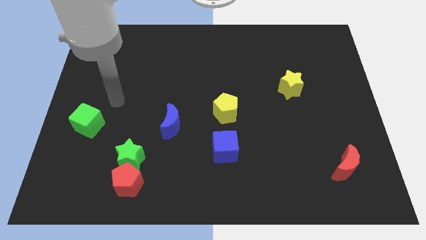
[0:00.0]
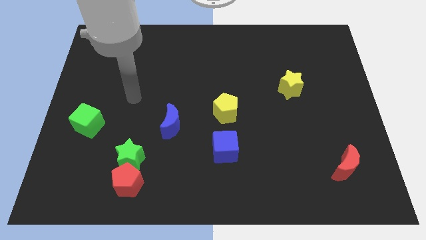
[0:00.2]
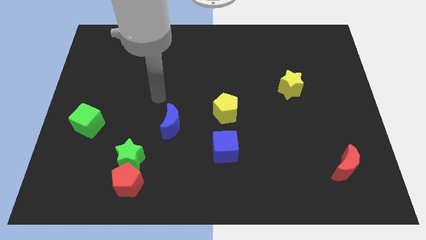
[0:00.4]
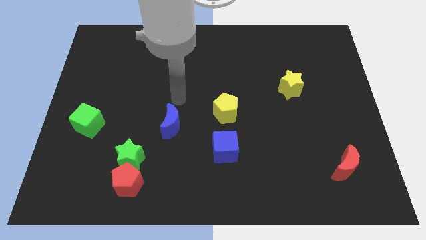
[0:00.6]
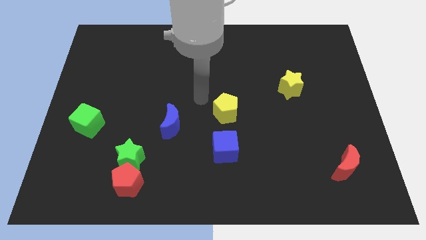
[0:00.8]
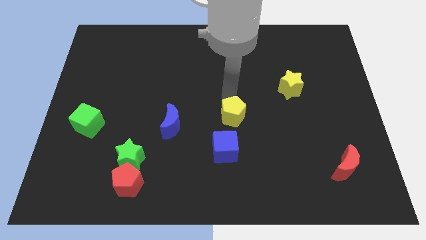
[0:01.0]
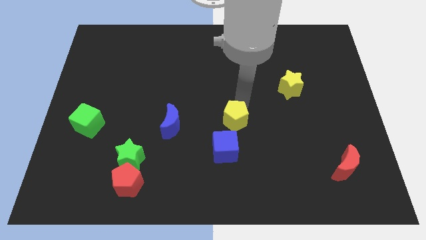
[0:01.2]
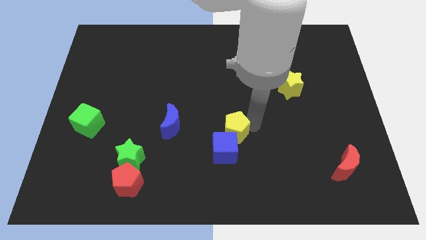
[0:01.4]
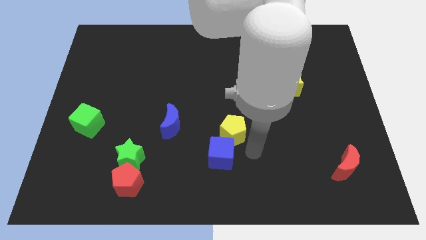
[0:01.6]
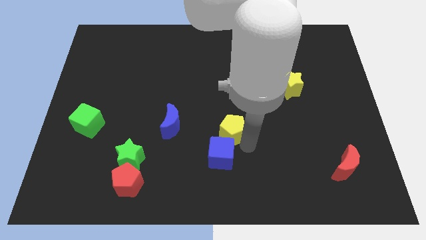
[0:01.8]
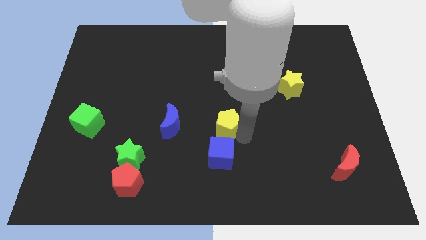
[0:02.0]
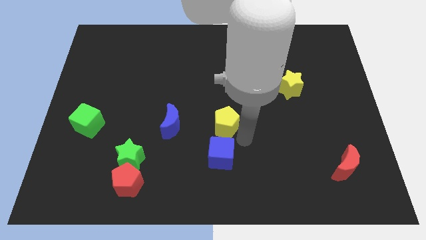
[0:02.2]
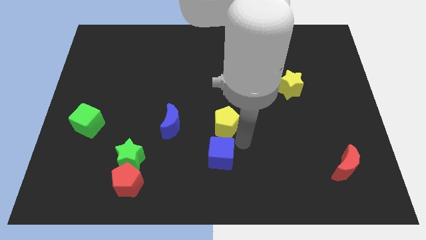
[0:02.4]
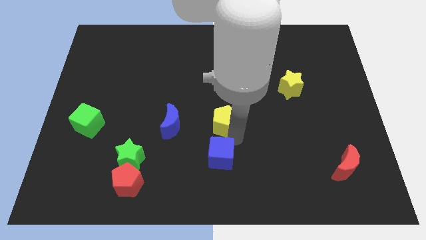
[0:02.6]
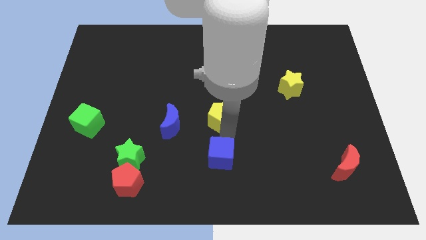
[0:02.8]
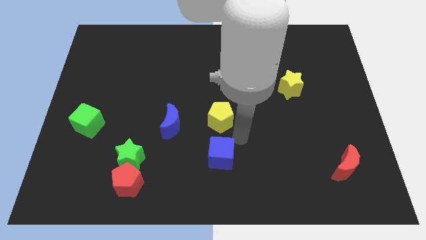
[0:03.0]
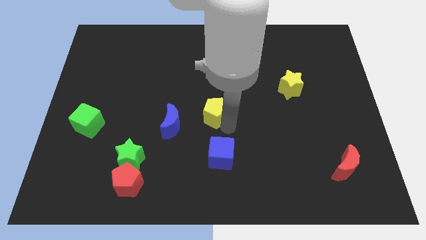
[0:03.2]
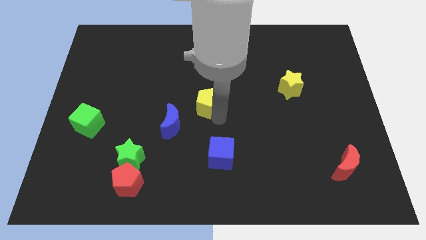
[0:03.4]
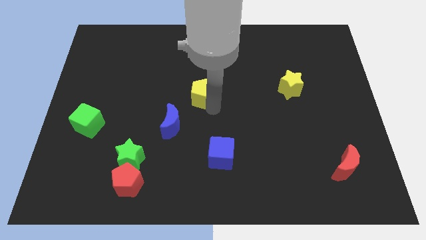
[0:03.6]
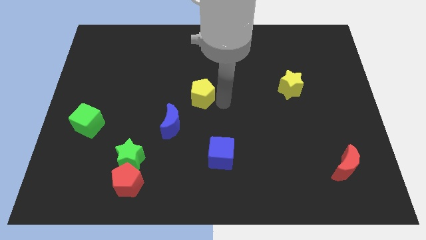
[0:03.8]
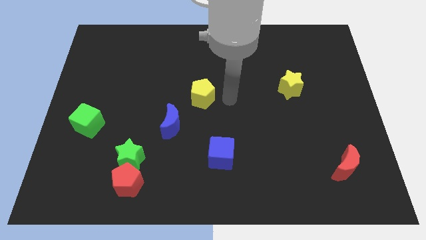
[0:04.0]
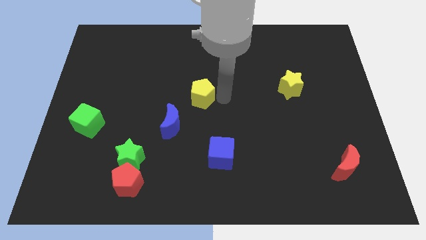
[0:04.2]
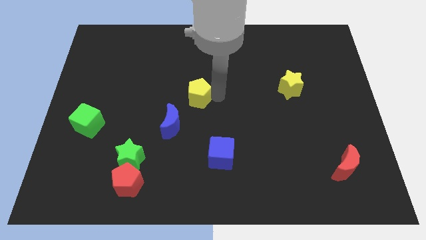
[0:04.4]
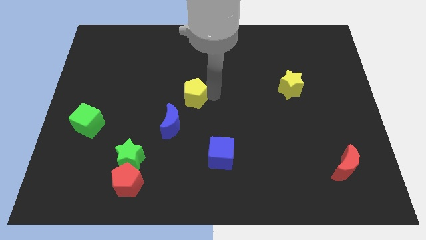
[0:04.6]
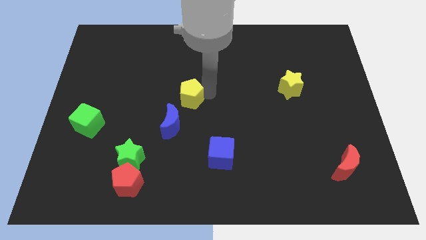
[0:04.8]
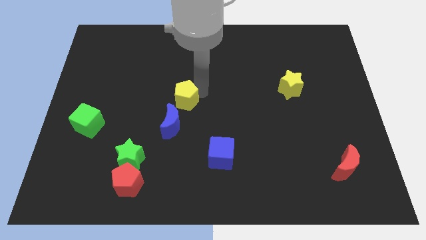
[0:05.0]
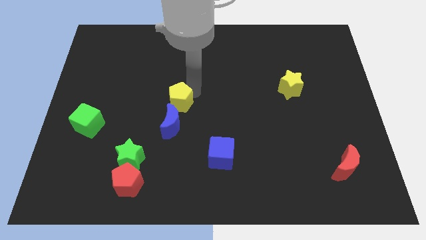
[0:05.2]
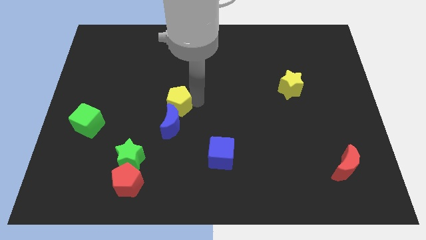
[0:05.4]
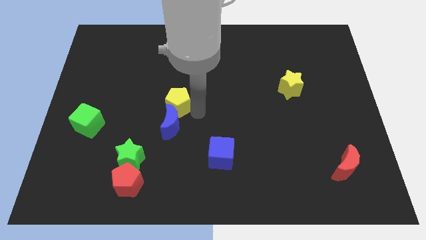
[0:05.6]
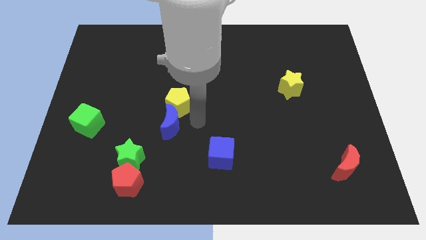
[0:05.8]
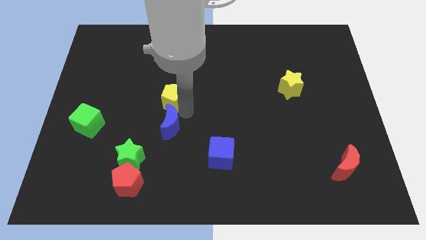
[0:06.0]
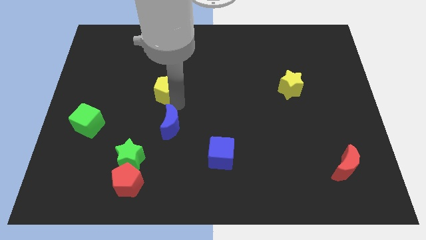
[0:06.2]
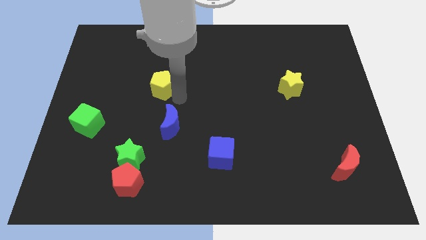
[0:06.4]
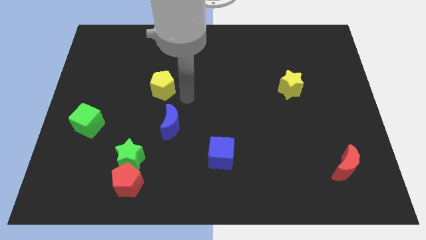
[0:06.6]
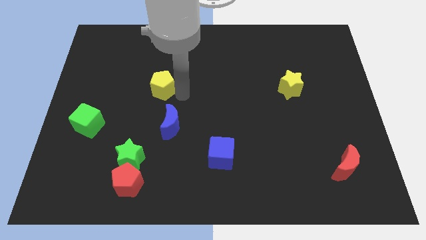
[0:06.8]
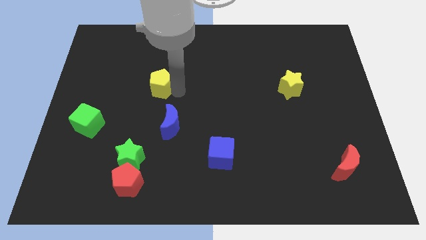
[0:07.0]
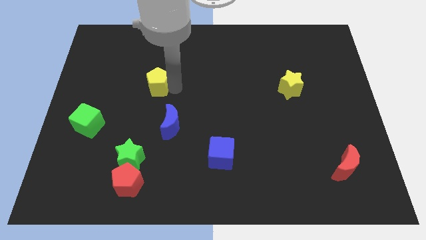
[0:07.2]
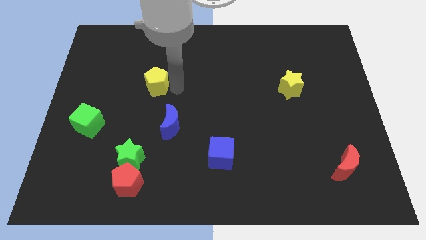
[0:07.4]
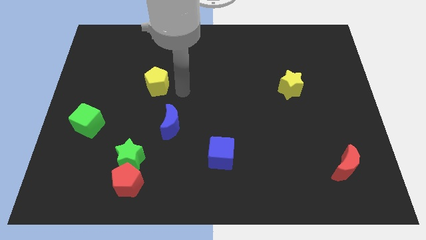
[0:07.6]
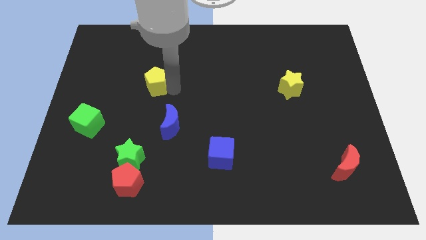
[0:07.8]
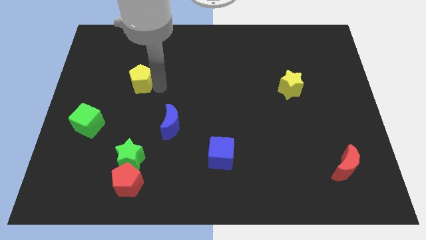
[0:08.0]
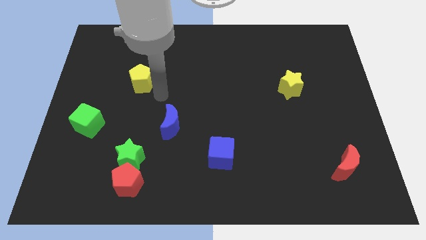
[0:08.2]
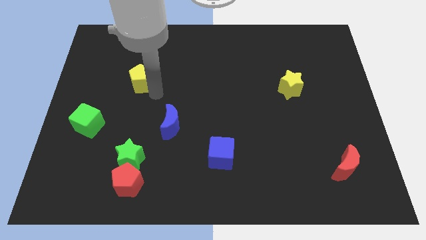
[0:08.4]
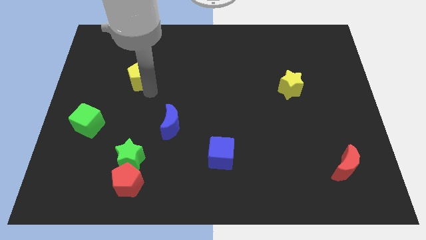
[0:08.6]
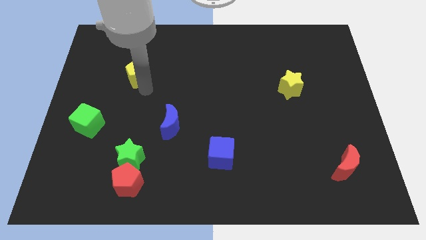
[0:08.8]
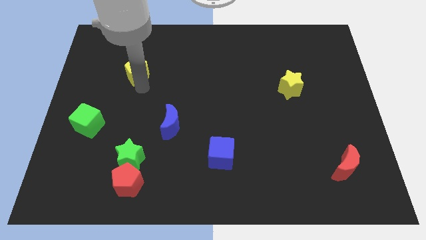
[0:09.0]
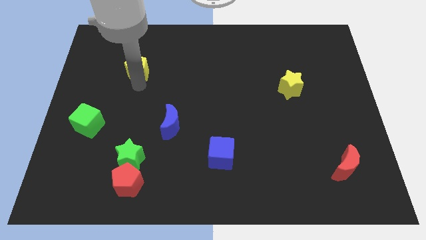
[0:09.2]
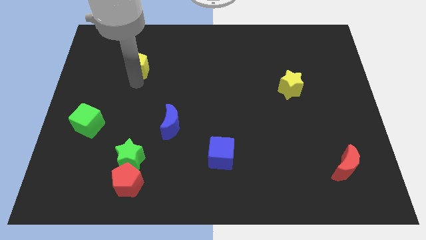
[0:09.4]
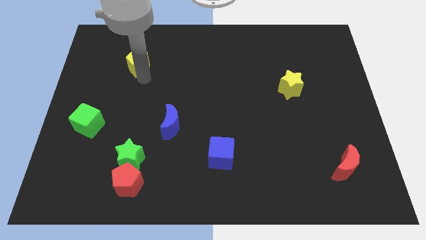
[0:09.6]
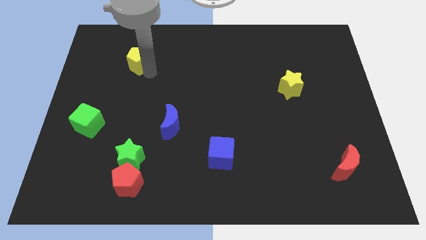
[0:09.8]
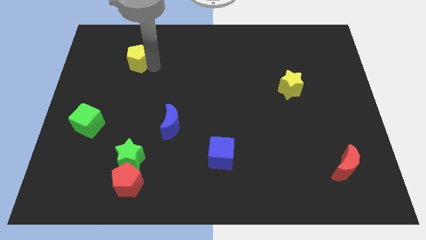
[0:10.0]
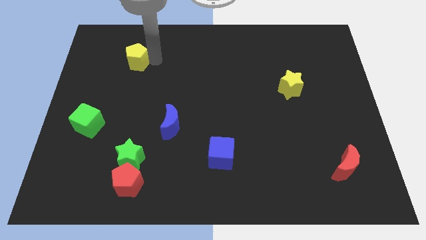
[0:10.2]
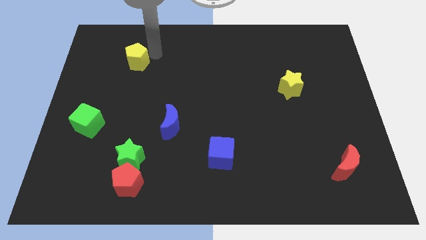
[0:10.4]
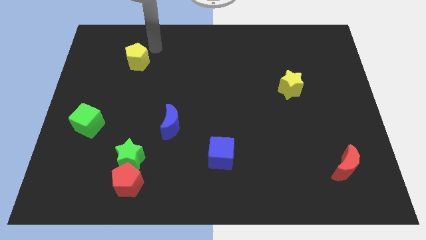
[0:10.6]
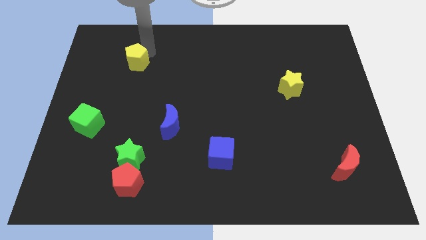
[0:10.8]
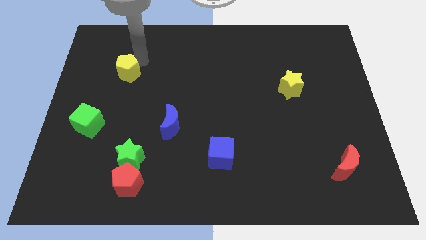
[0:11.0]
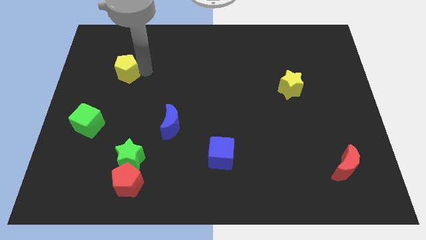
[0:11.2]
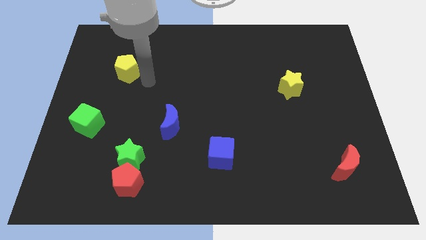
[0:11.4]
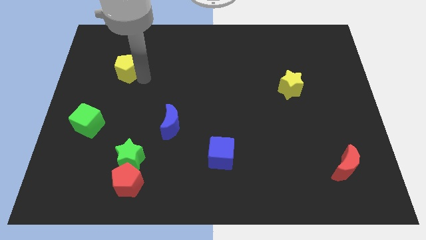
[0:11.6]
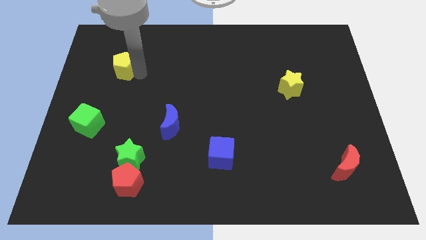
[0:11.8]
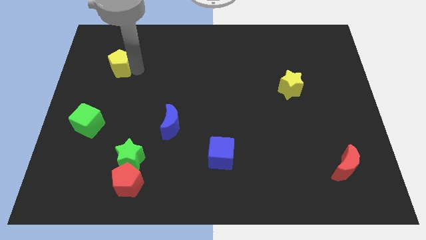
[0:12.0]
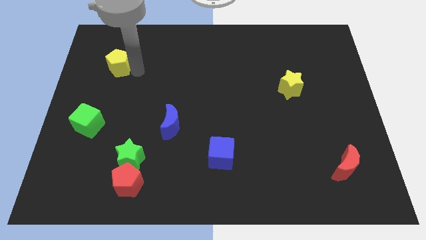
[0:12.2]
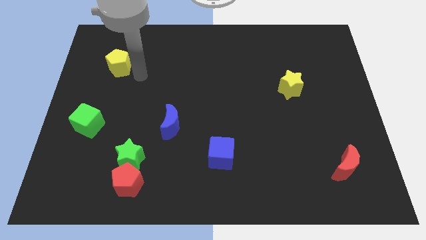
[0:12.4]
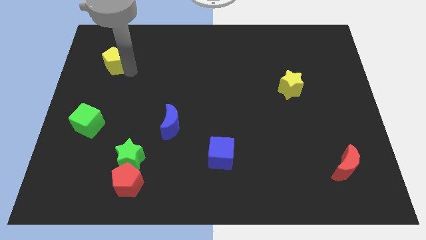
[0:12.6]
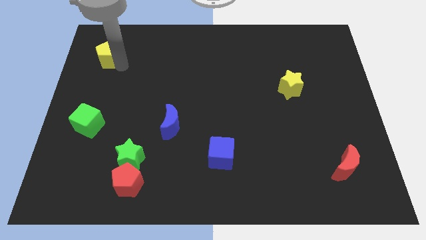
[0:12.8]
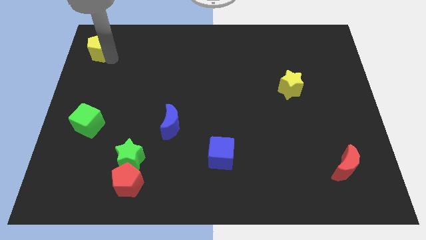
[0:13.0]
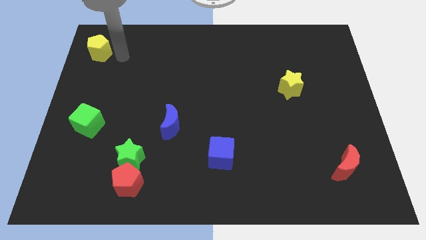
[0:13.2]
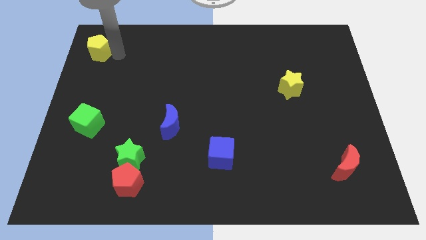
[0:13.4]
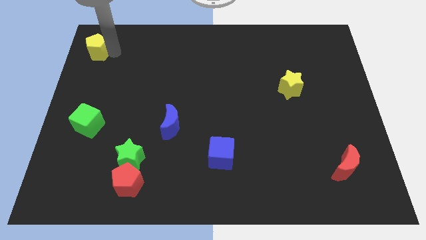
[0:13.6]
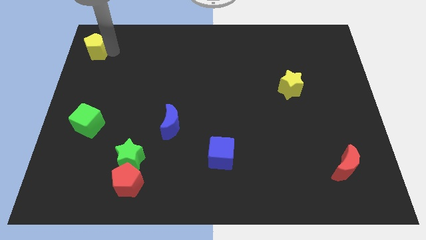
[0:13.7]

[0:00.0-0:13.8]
slide the yellow pentagon to the top left of the board

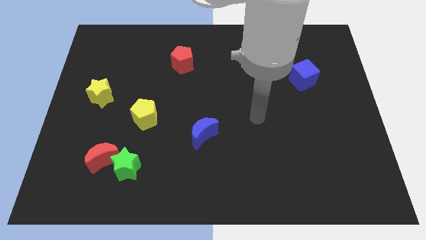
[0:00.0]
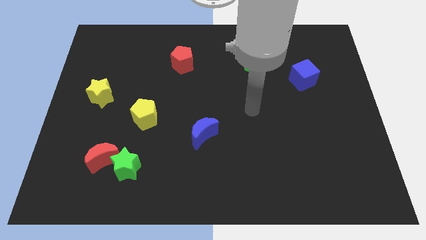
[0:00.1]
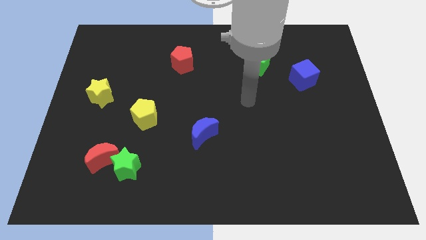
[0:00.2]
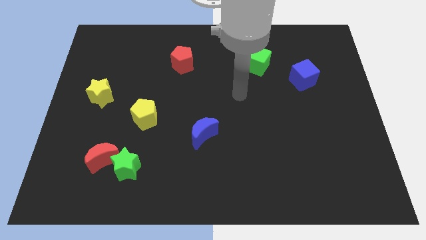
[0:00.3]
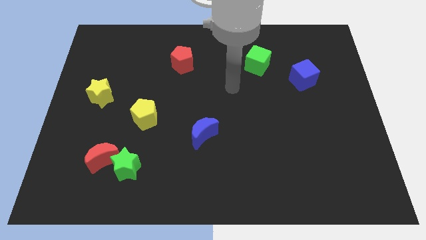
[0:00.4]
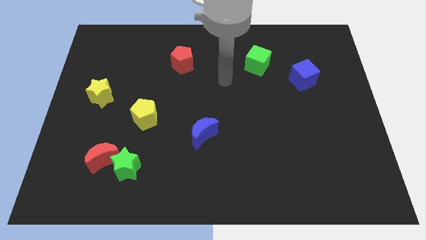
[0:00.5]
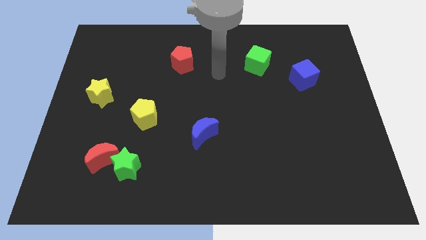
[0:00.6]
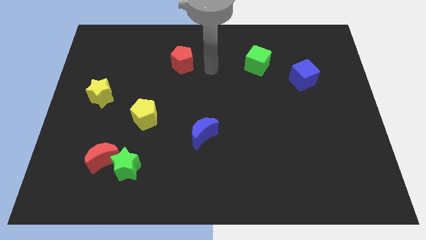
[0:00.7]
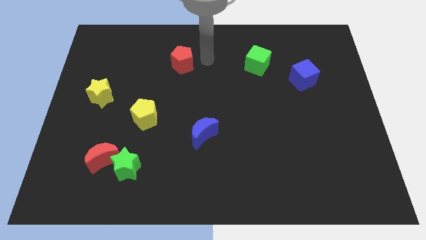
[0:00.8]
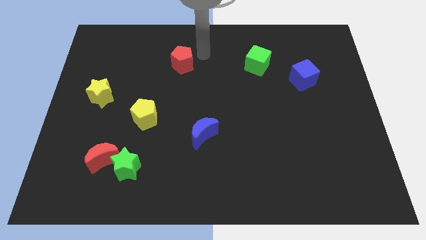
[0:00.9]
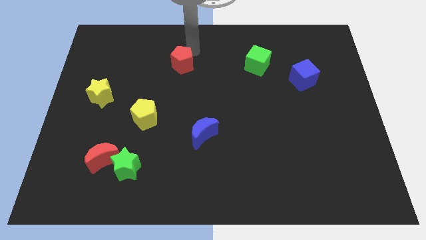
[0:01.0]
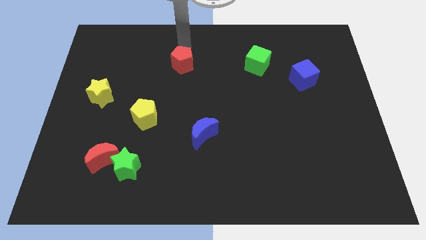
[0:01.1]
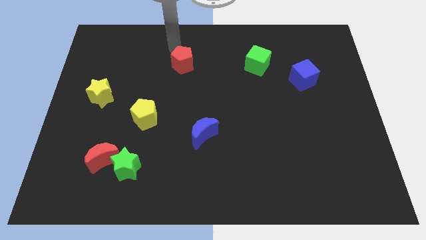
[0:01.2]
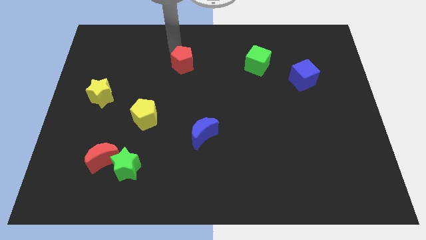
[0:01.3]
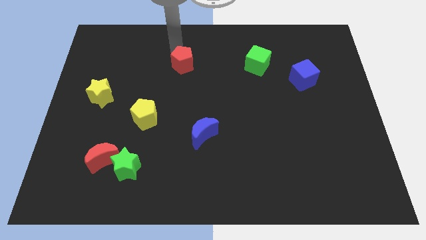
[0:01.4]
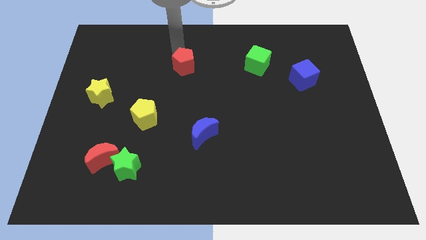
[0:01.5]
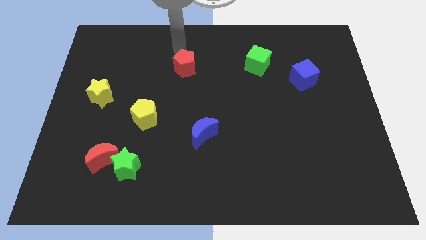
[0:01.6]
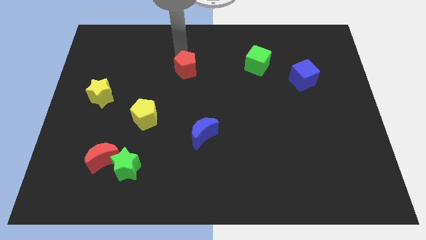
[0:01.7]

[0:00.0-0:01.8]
slide the red pentagon to the middle
